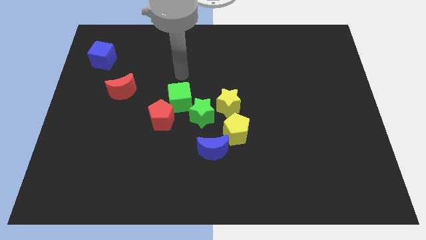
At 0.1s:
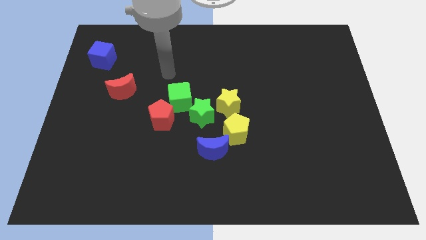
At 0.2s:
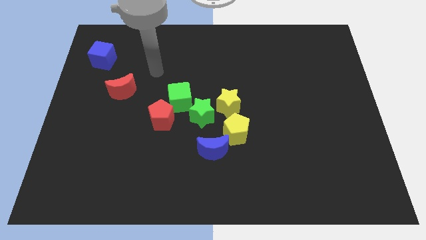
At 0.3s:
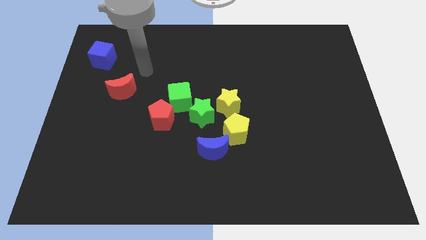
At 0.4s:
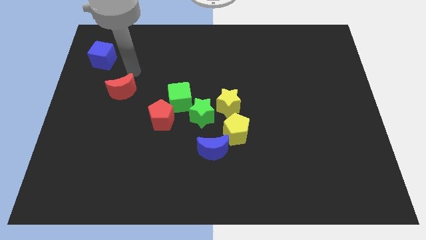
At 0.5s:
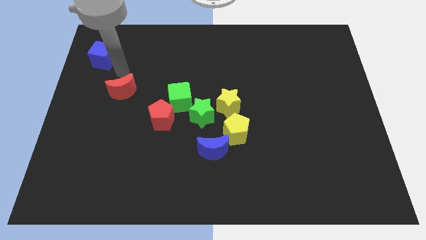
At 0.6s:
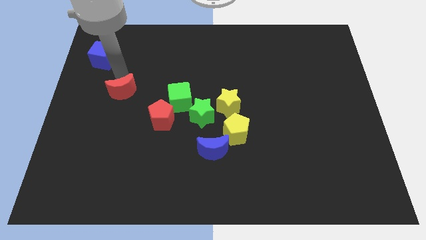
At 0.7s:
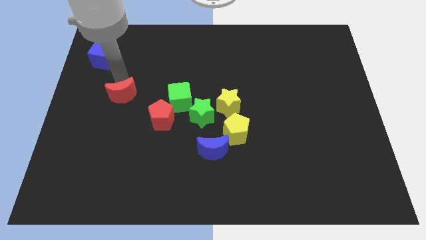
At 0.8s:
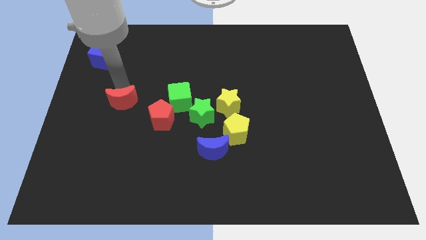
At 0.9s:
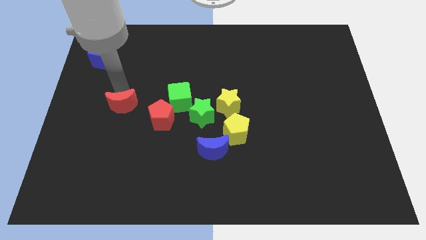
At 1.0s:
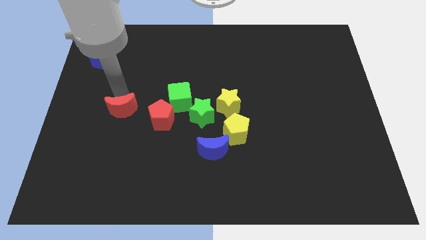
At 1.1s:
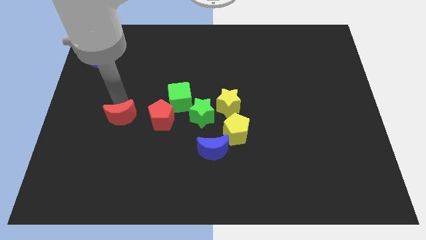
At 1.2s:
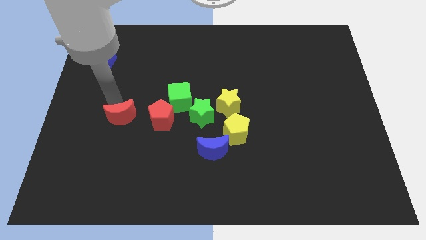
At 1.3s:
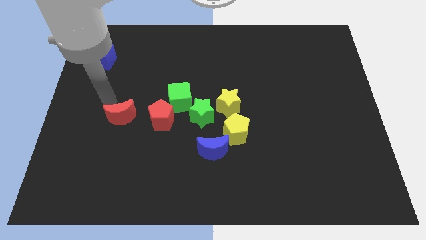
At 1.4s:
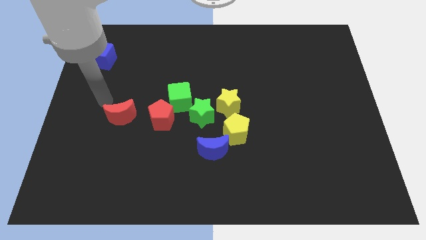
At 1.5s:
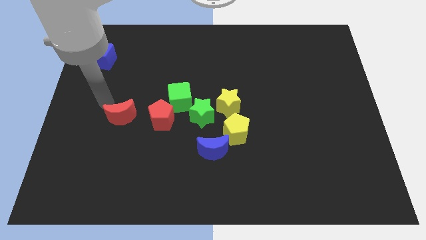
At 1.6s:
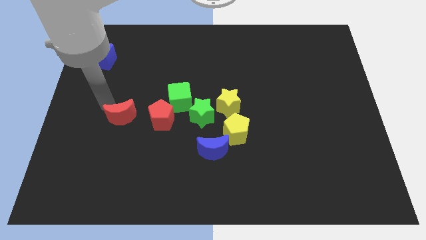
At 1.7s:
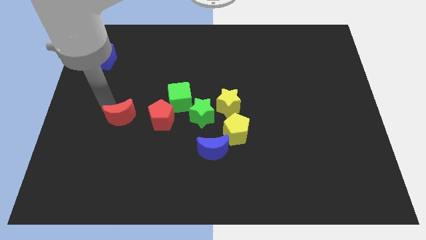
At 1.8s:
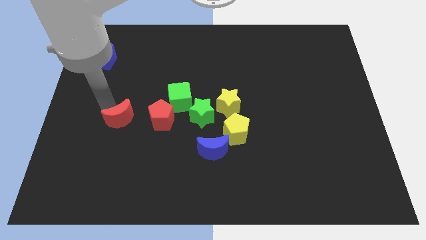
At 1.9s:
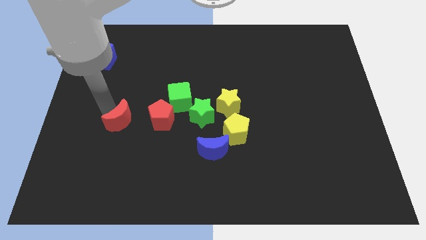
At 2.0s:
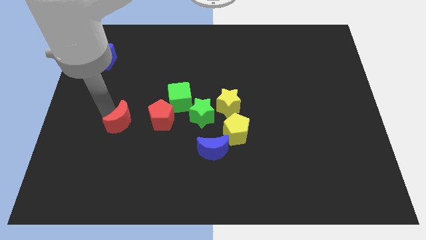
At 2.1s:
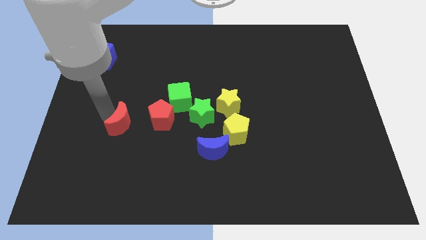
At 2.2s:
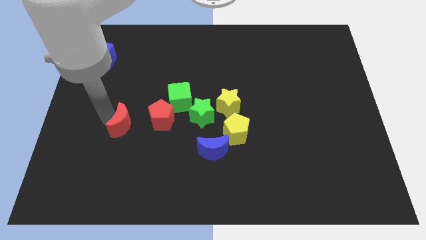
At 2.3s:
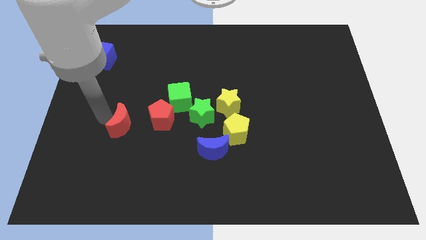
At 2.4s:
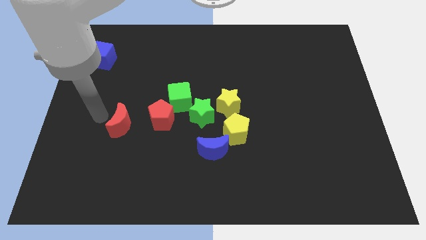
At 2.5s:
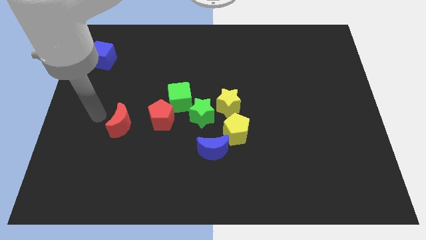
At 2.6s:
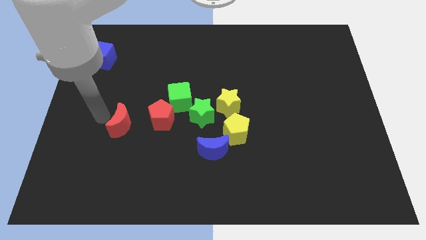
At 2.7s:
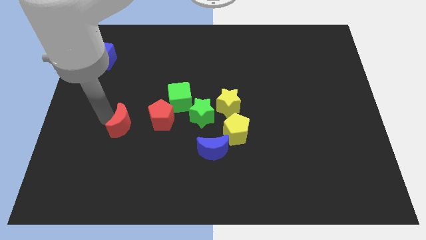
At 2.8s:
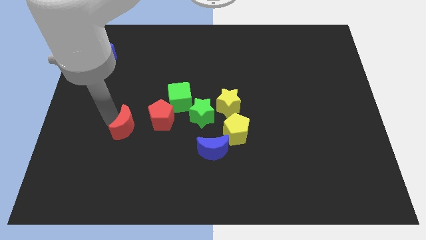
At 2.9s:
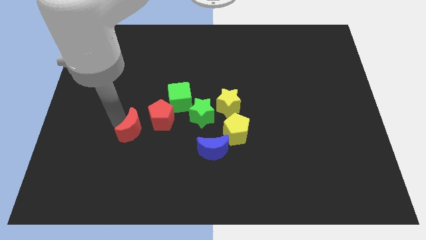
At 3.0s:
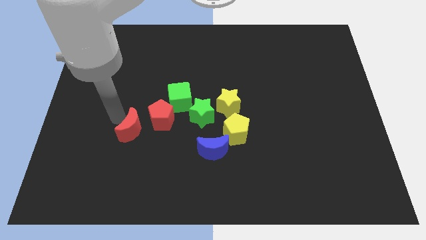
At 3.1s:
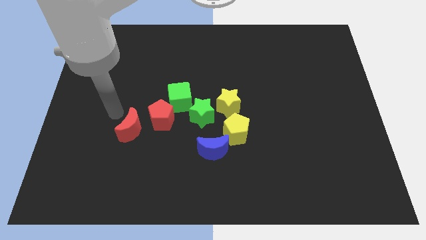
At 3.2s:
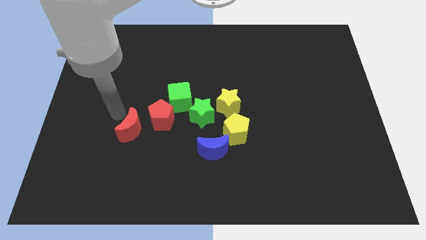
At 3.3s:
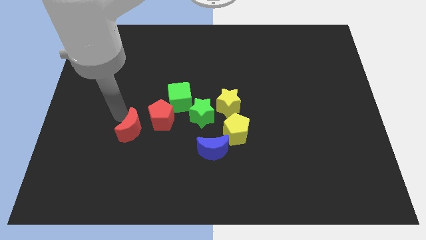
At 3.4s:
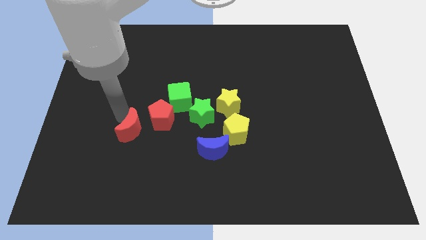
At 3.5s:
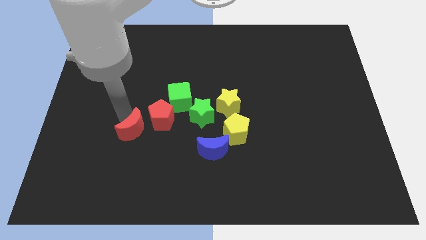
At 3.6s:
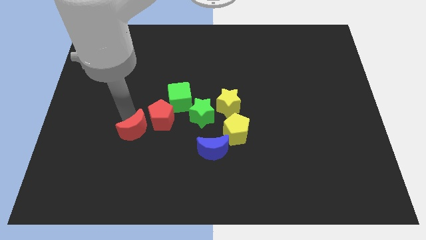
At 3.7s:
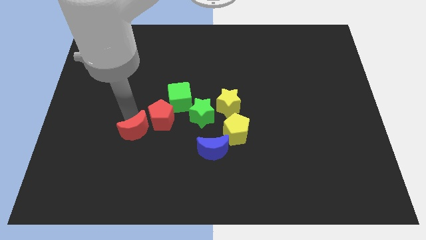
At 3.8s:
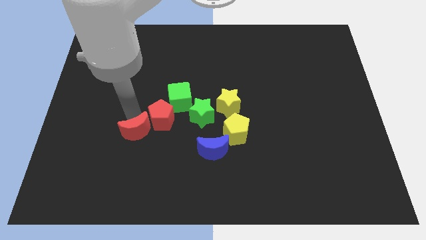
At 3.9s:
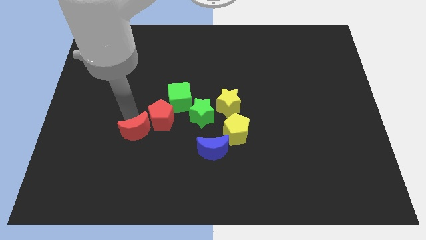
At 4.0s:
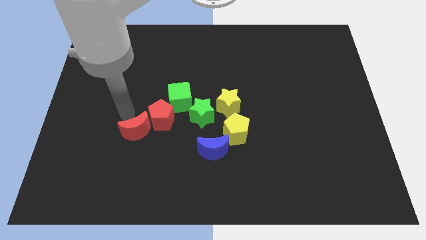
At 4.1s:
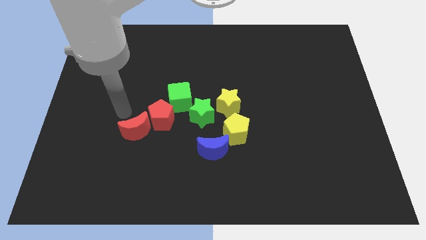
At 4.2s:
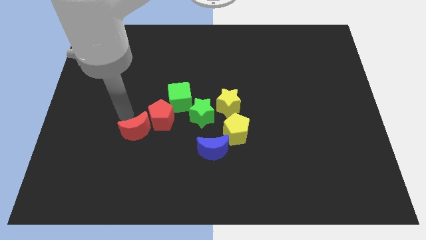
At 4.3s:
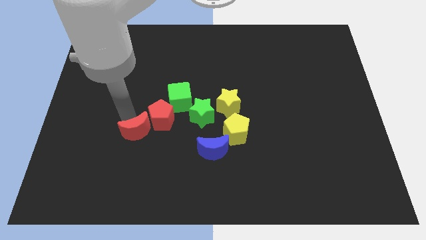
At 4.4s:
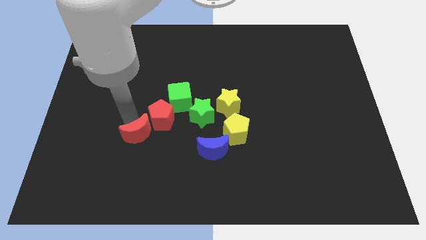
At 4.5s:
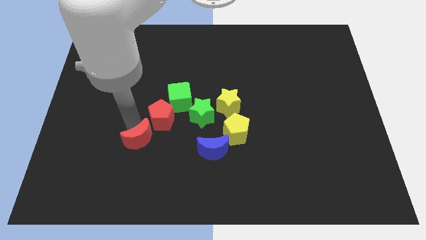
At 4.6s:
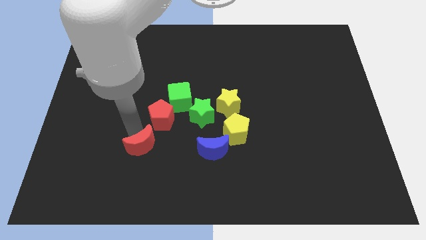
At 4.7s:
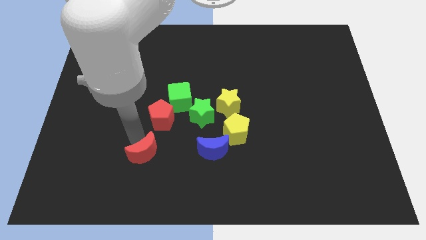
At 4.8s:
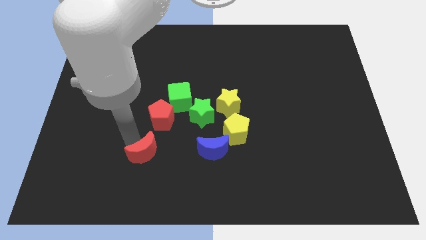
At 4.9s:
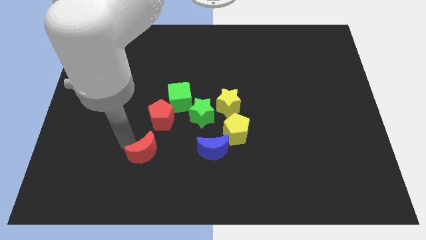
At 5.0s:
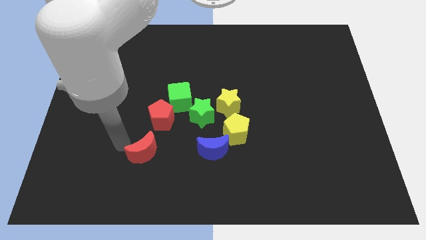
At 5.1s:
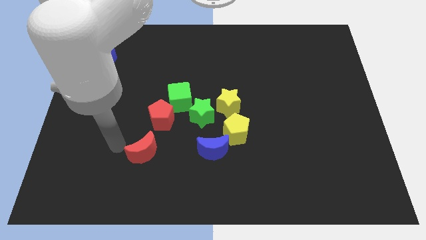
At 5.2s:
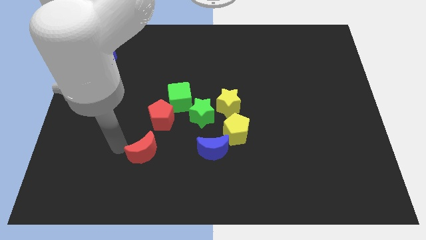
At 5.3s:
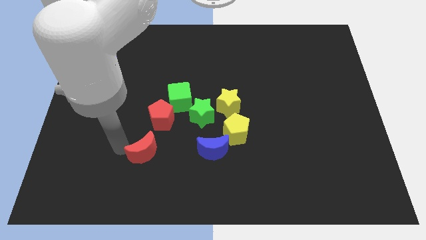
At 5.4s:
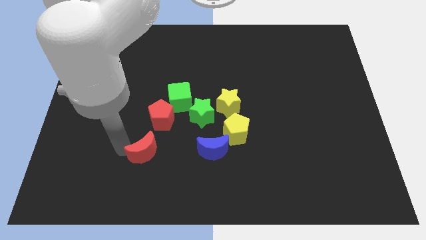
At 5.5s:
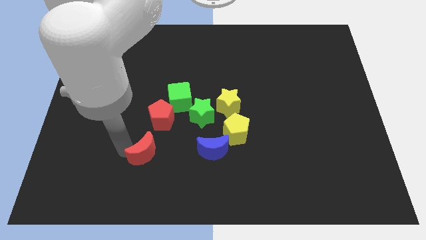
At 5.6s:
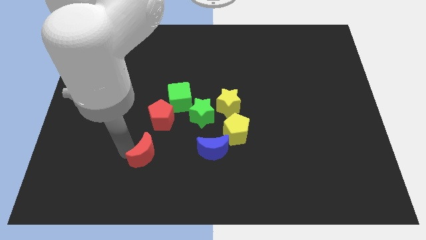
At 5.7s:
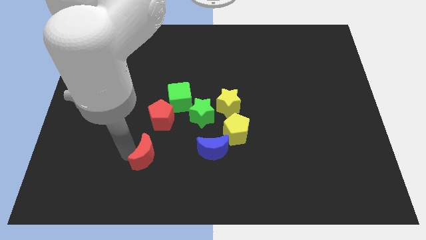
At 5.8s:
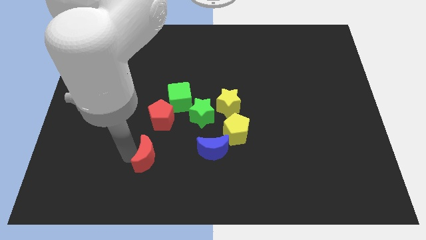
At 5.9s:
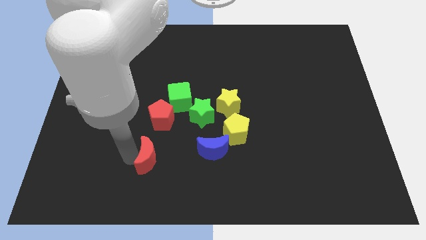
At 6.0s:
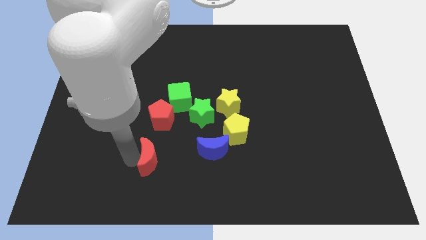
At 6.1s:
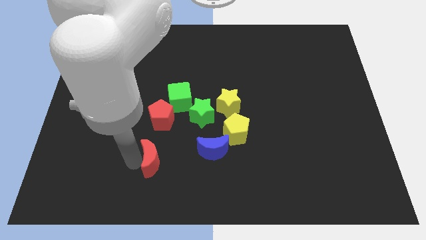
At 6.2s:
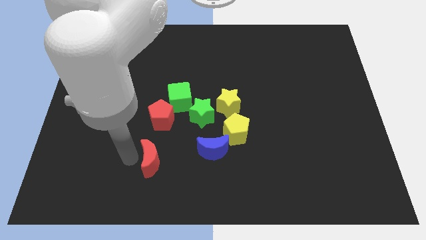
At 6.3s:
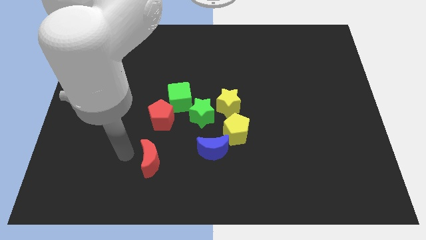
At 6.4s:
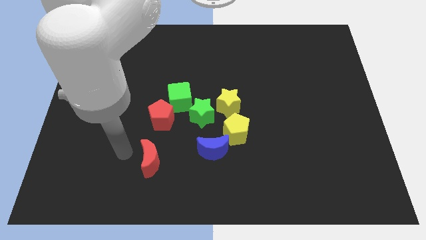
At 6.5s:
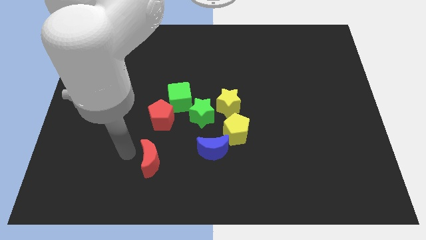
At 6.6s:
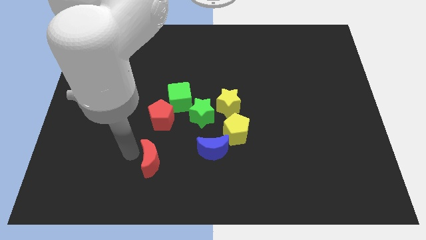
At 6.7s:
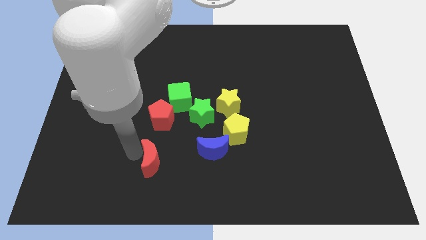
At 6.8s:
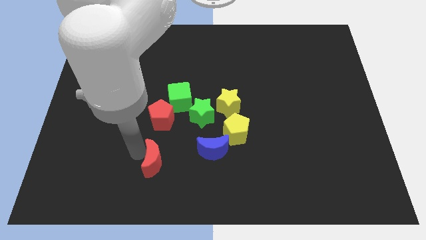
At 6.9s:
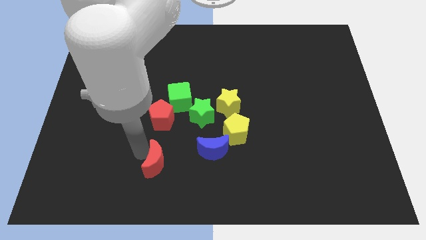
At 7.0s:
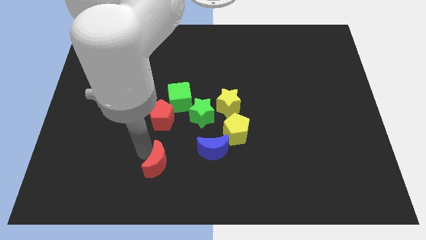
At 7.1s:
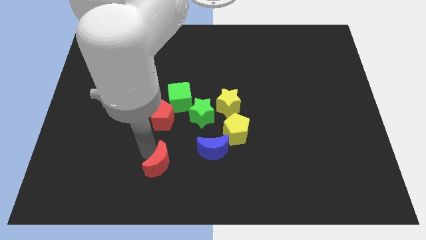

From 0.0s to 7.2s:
slide the red moon diagonally downwards and to the right

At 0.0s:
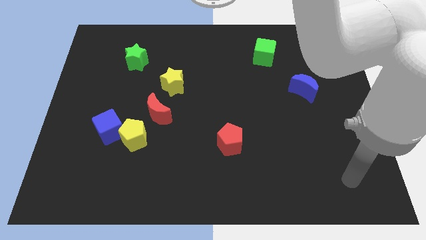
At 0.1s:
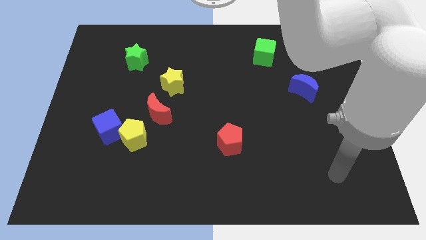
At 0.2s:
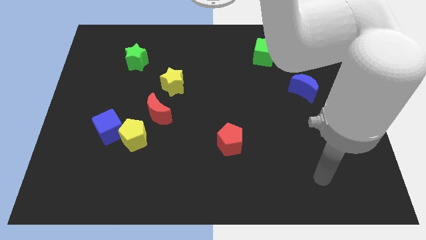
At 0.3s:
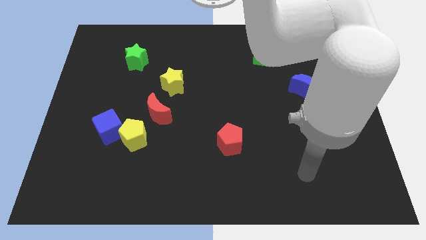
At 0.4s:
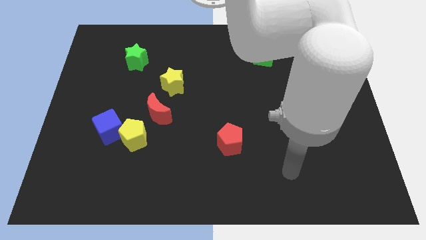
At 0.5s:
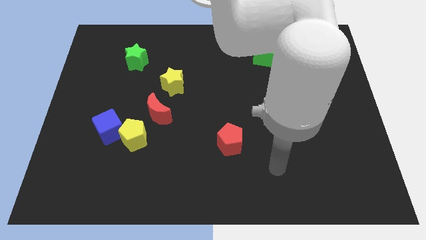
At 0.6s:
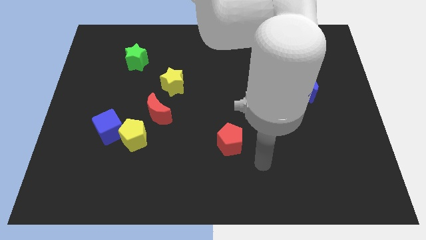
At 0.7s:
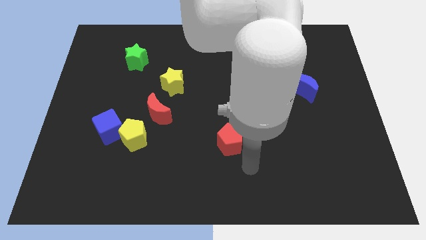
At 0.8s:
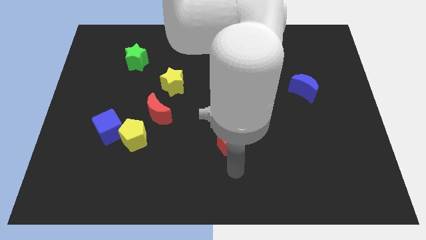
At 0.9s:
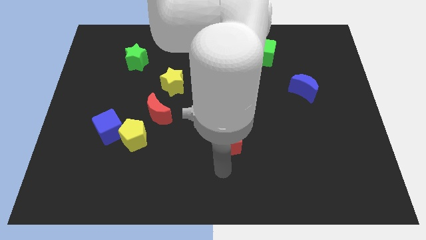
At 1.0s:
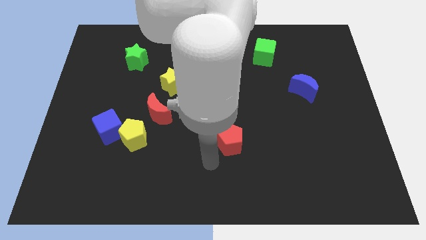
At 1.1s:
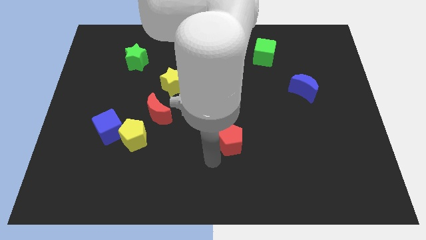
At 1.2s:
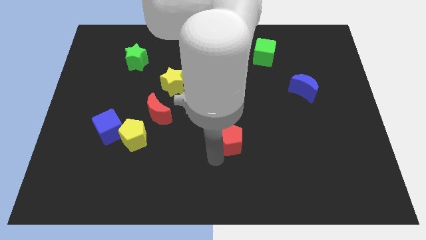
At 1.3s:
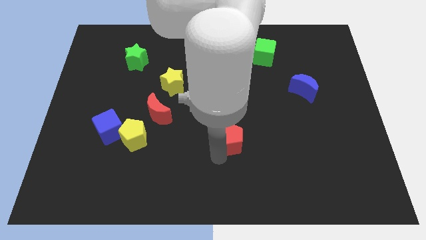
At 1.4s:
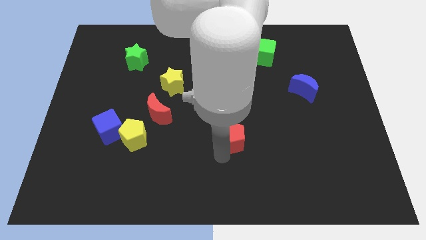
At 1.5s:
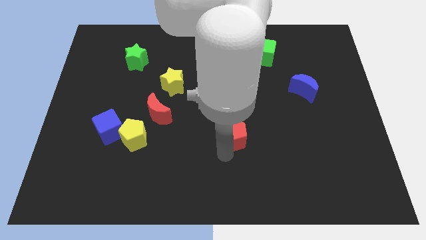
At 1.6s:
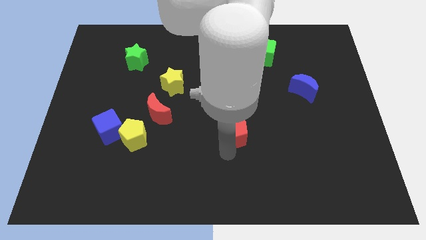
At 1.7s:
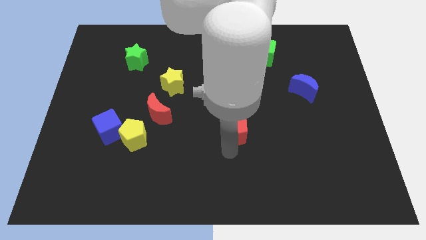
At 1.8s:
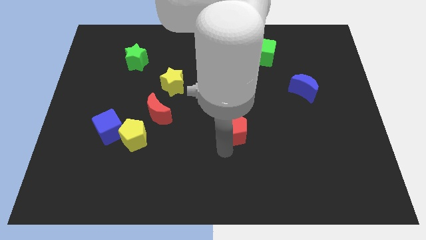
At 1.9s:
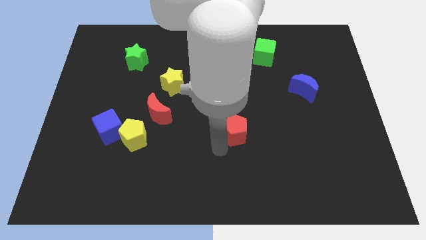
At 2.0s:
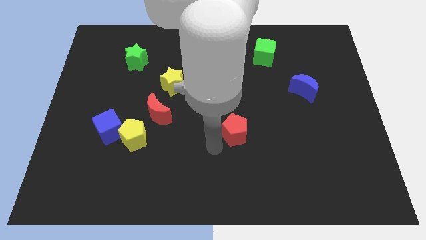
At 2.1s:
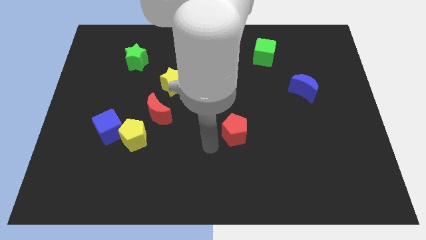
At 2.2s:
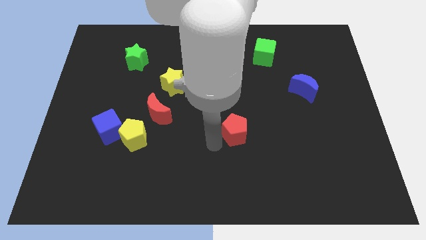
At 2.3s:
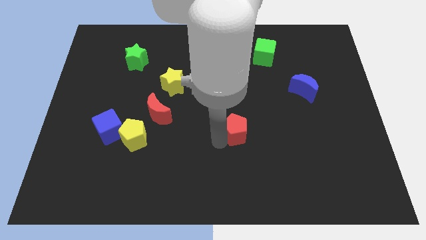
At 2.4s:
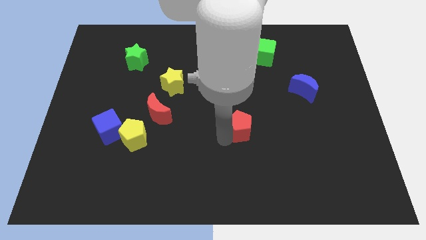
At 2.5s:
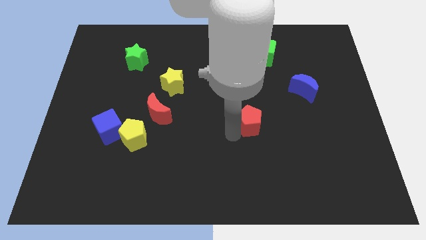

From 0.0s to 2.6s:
move the red pentagon a little bit upwards and right diagonally
